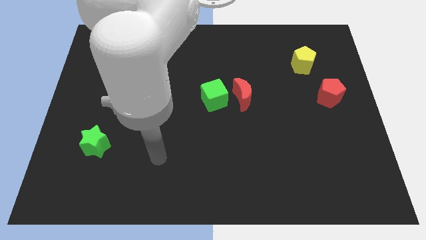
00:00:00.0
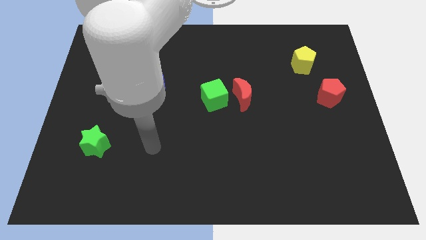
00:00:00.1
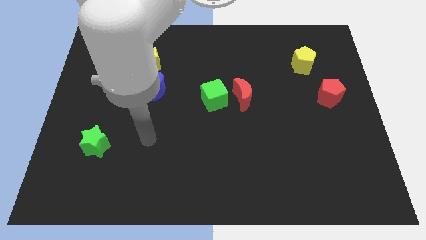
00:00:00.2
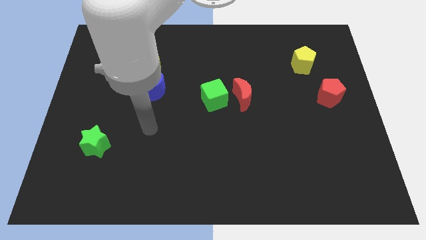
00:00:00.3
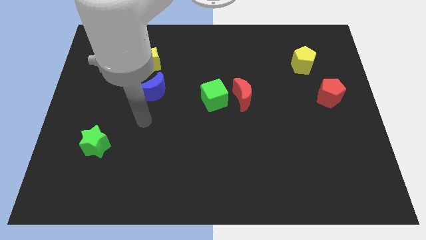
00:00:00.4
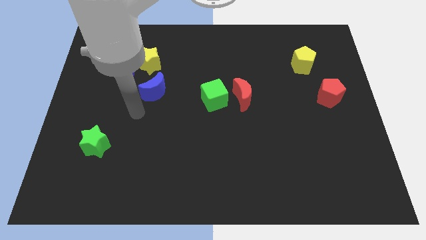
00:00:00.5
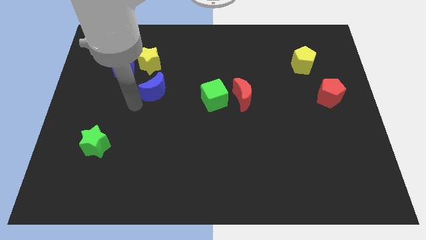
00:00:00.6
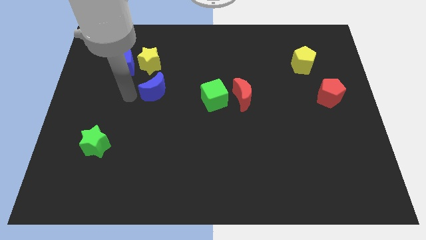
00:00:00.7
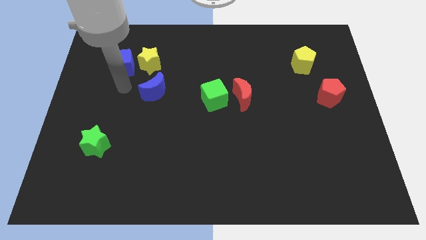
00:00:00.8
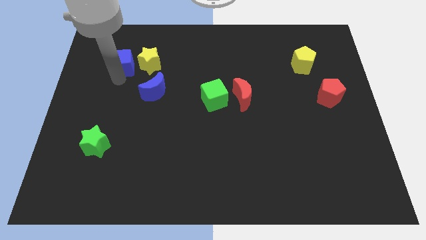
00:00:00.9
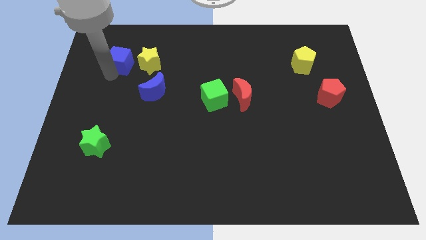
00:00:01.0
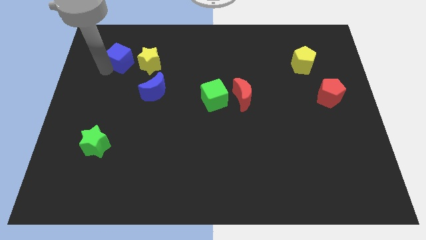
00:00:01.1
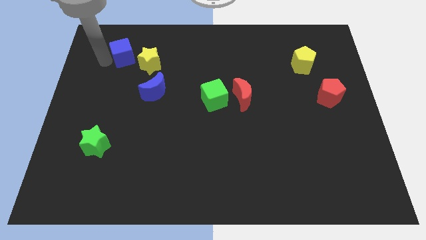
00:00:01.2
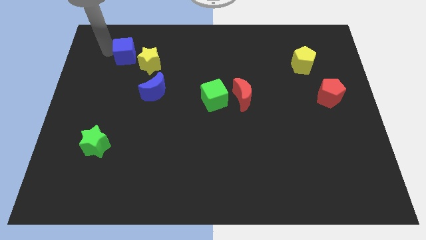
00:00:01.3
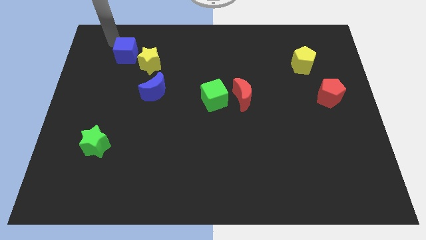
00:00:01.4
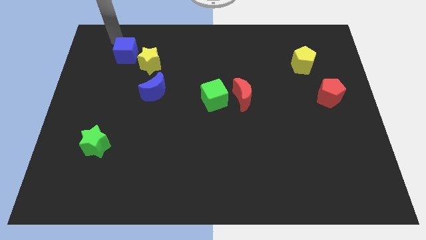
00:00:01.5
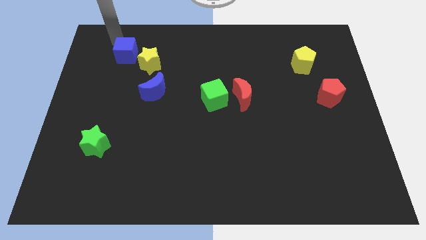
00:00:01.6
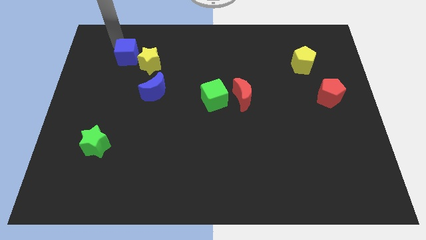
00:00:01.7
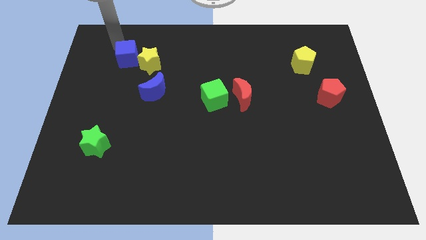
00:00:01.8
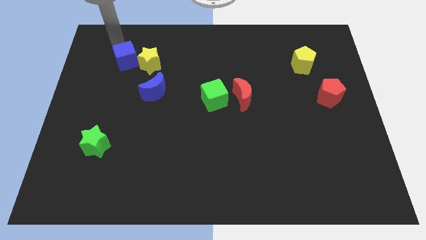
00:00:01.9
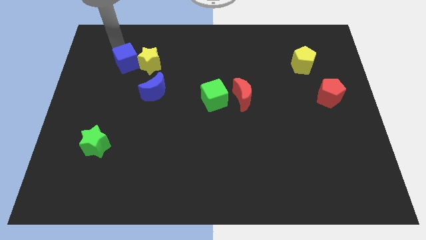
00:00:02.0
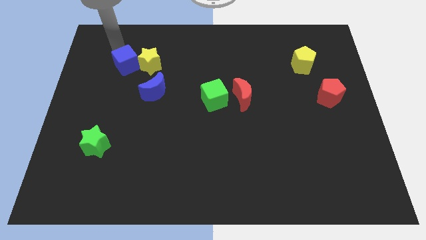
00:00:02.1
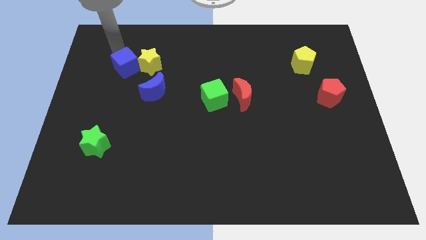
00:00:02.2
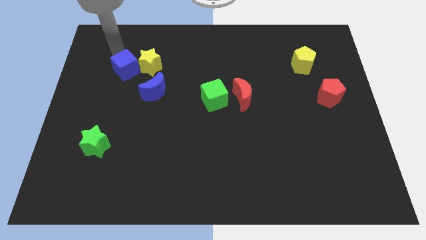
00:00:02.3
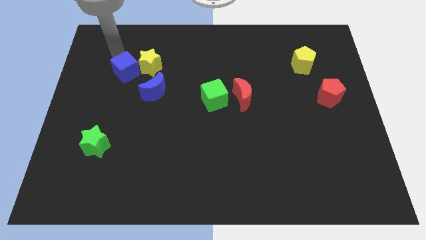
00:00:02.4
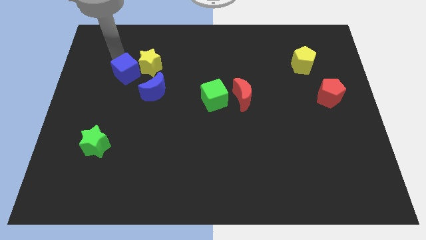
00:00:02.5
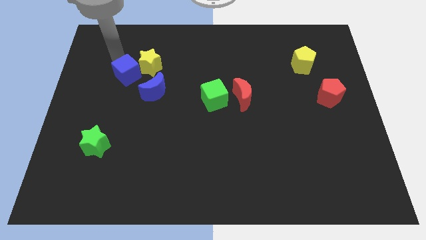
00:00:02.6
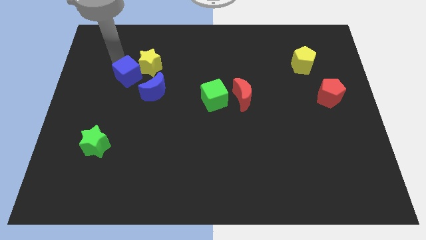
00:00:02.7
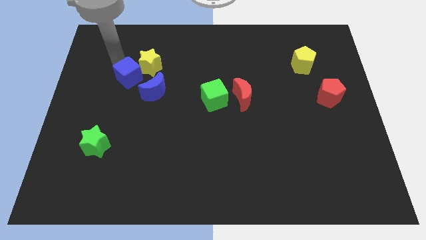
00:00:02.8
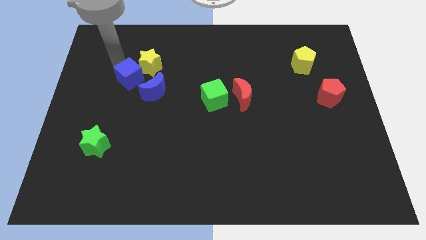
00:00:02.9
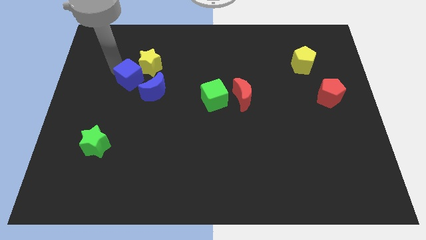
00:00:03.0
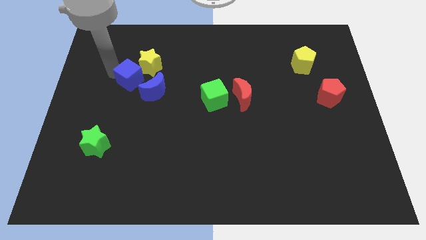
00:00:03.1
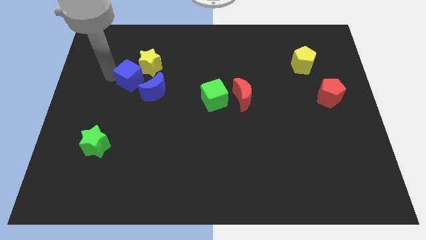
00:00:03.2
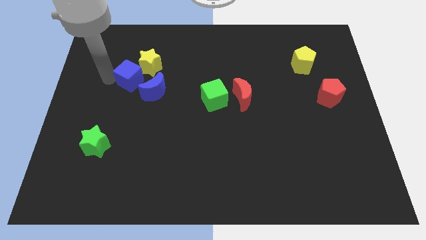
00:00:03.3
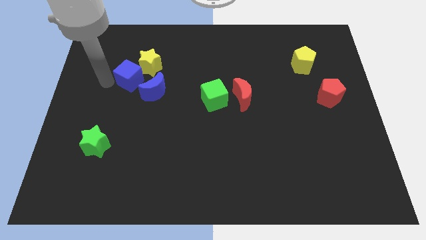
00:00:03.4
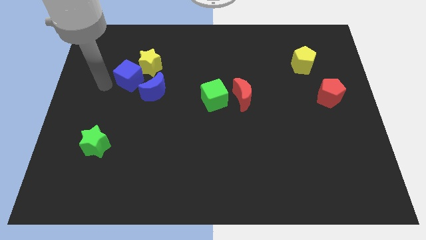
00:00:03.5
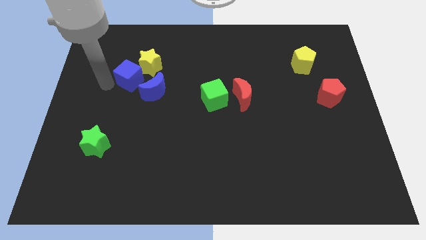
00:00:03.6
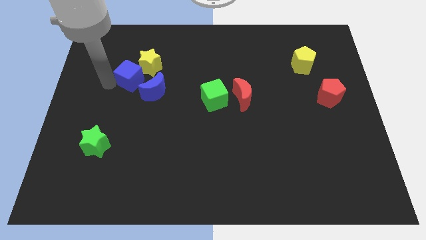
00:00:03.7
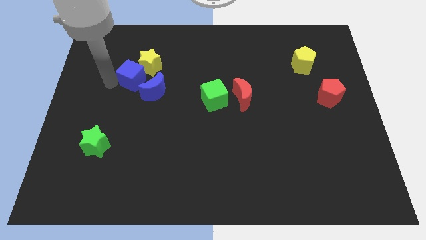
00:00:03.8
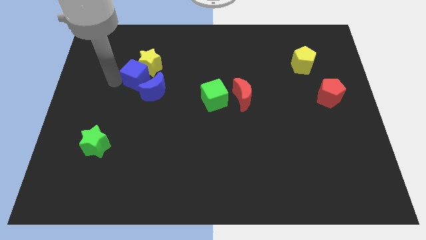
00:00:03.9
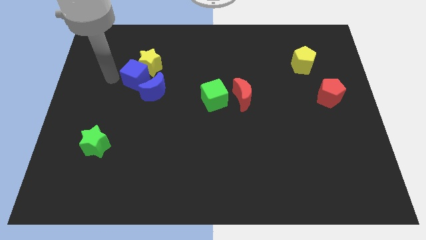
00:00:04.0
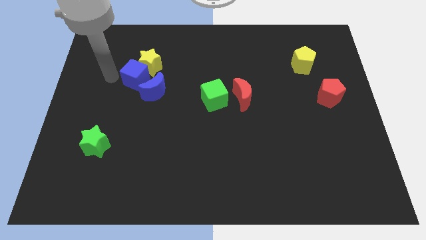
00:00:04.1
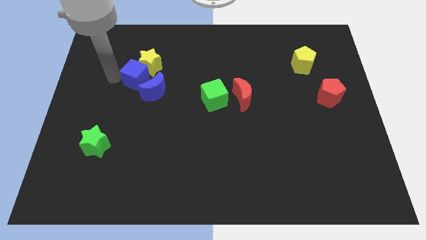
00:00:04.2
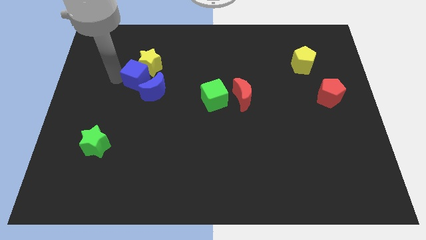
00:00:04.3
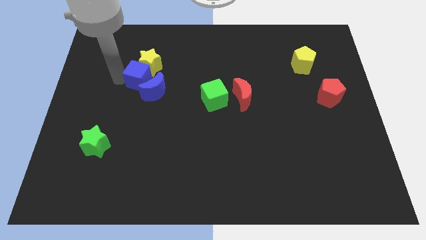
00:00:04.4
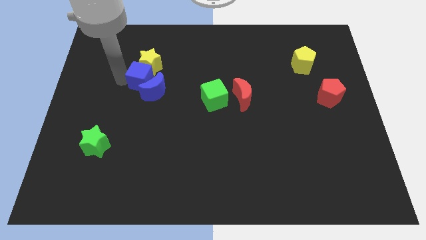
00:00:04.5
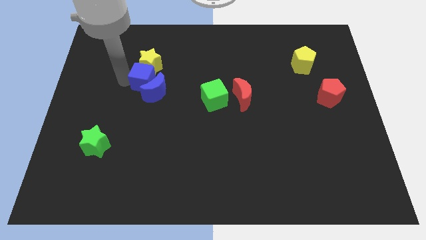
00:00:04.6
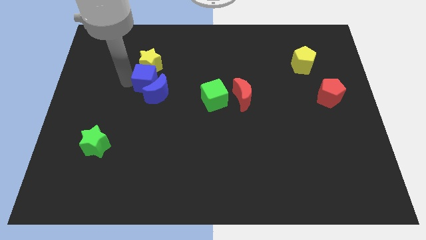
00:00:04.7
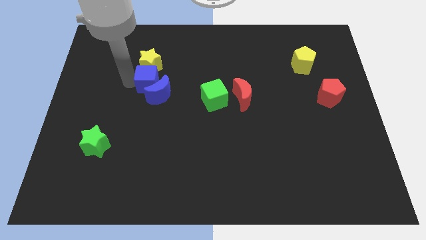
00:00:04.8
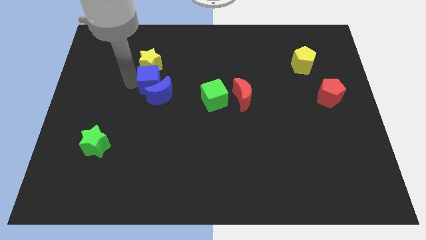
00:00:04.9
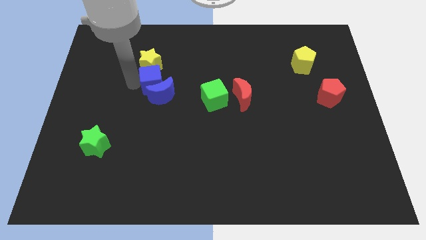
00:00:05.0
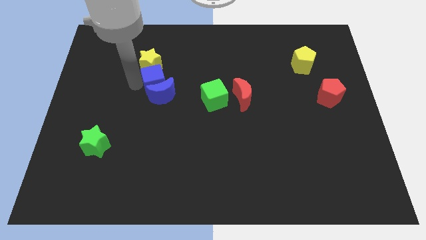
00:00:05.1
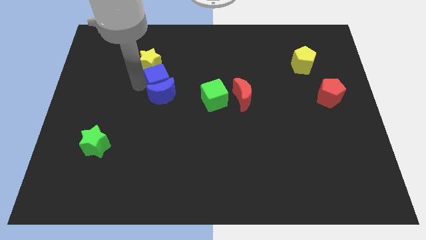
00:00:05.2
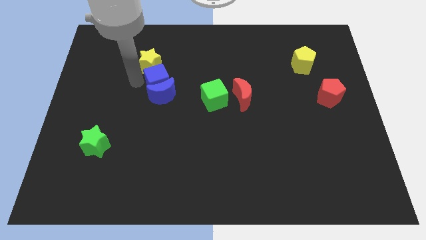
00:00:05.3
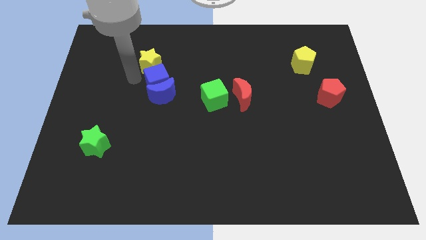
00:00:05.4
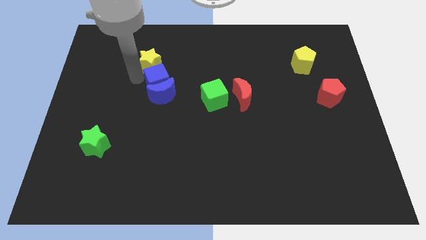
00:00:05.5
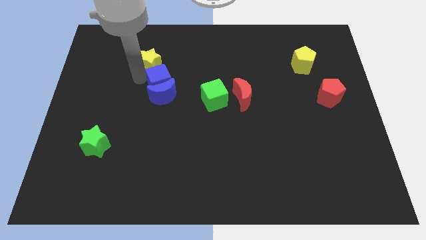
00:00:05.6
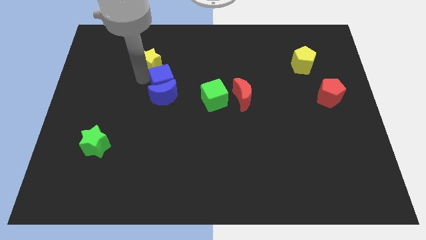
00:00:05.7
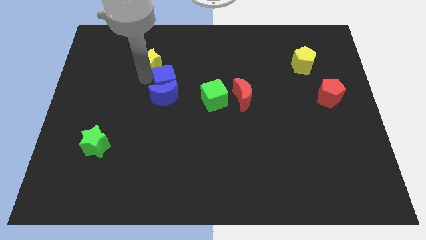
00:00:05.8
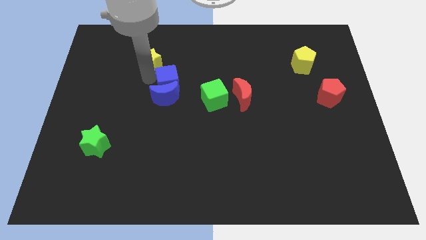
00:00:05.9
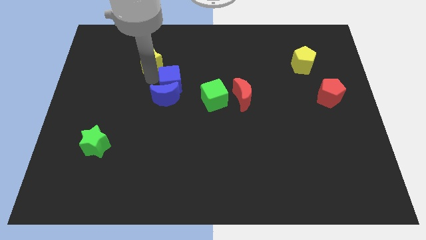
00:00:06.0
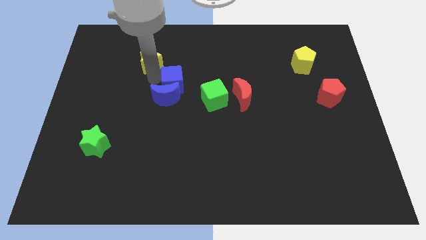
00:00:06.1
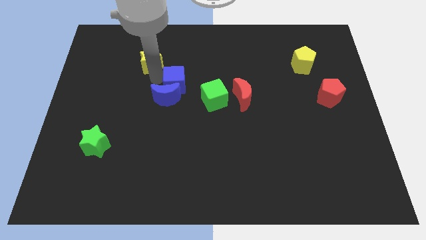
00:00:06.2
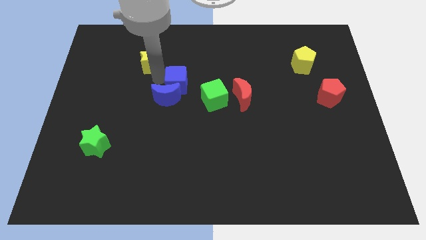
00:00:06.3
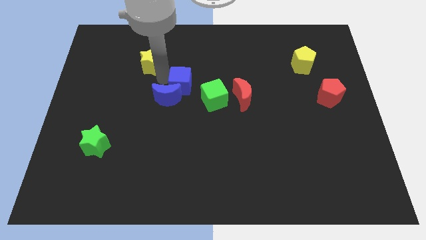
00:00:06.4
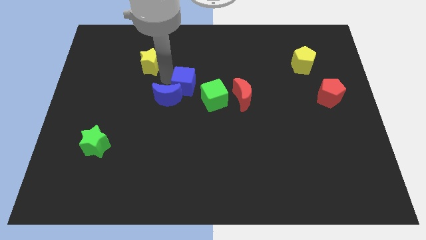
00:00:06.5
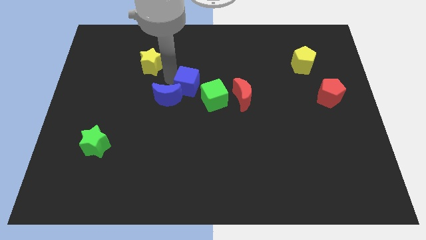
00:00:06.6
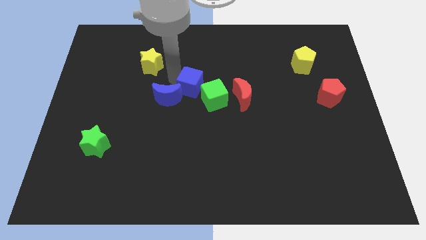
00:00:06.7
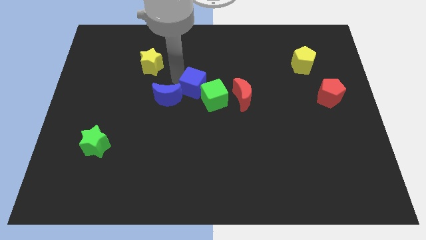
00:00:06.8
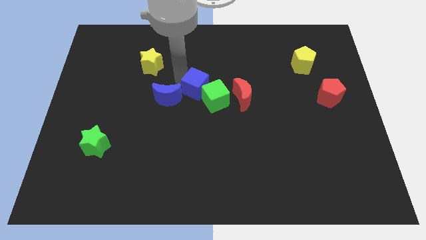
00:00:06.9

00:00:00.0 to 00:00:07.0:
move the blue cube towards the green cube

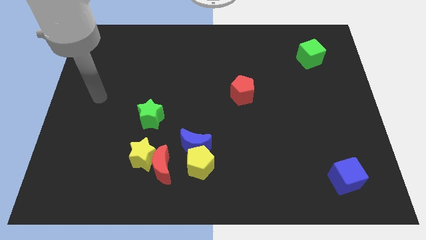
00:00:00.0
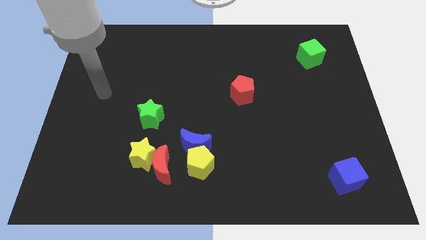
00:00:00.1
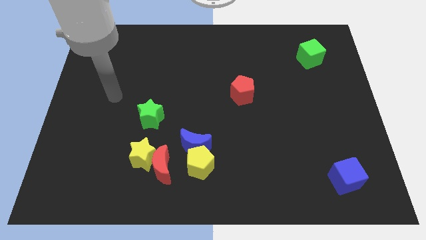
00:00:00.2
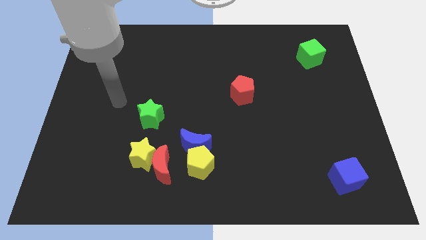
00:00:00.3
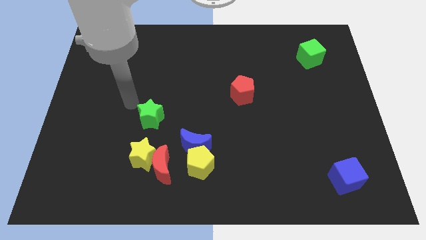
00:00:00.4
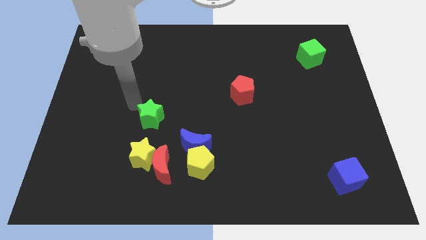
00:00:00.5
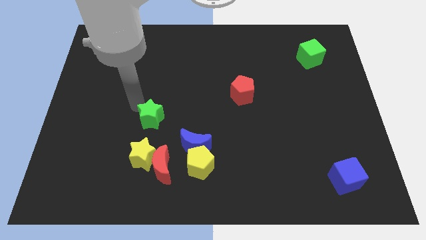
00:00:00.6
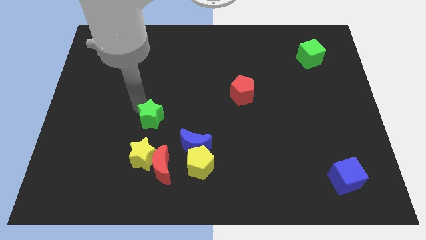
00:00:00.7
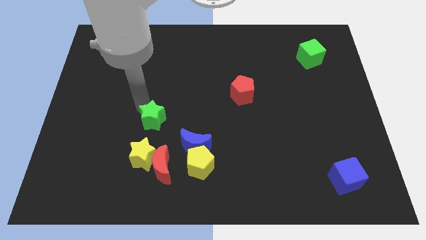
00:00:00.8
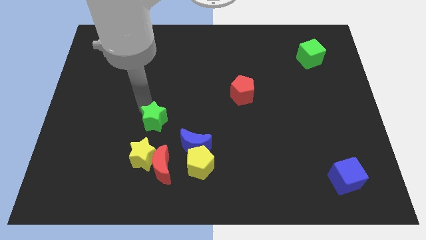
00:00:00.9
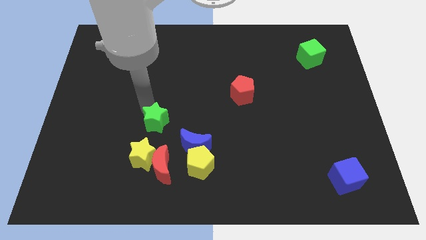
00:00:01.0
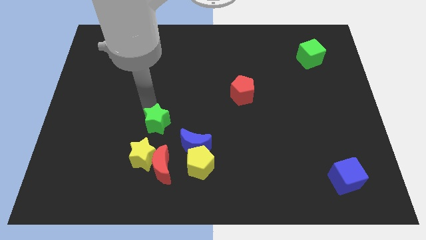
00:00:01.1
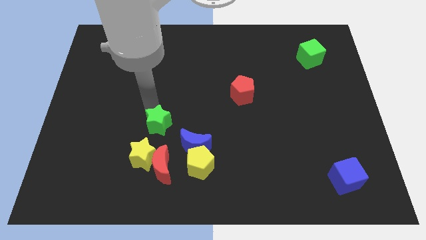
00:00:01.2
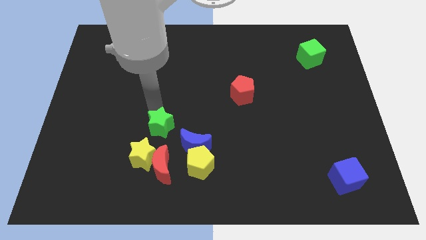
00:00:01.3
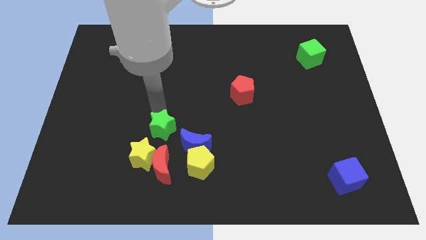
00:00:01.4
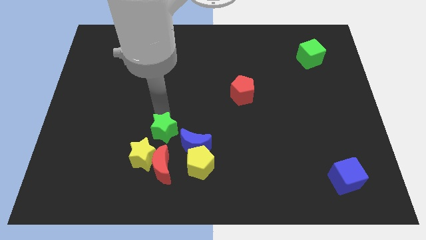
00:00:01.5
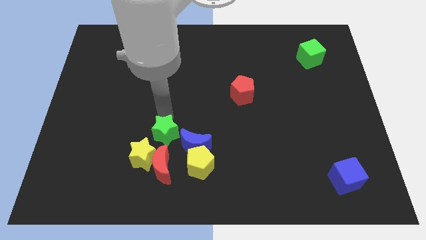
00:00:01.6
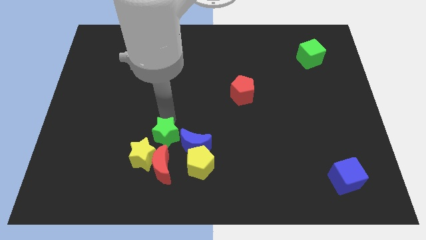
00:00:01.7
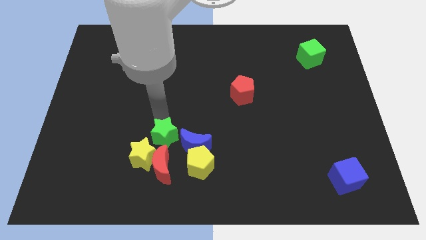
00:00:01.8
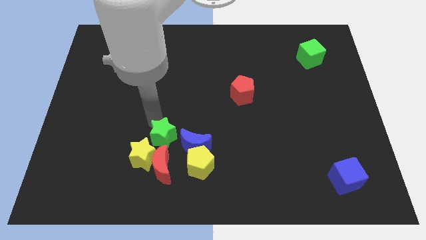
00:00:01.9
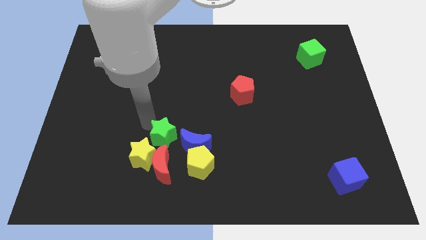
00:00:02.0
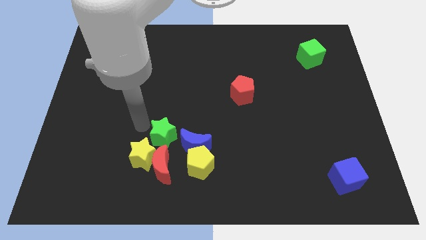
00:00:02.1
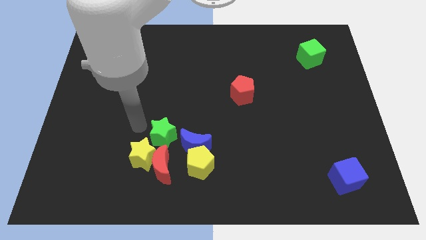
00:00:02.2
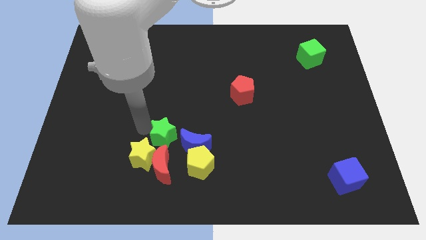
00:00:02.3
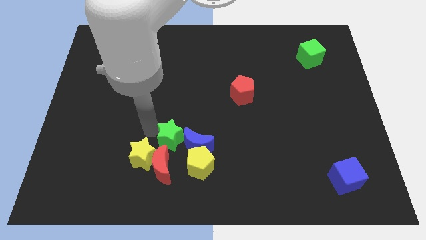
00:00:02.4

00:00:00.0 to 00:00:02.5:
push the green star next to the blue moon
